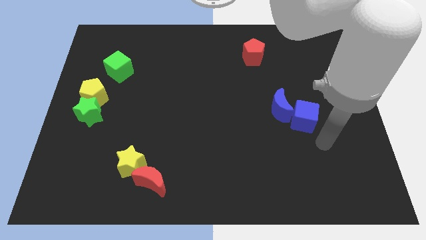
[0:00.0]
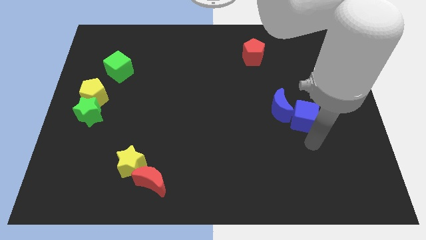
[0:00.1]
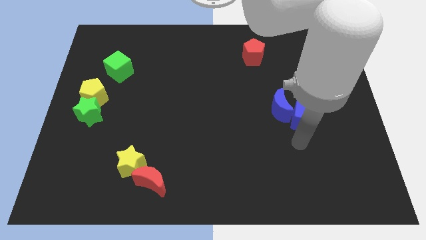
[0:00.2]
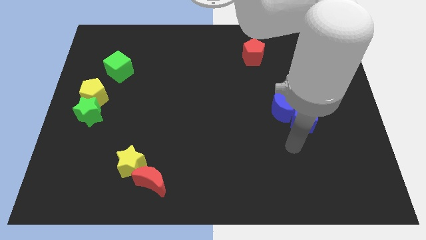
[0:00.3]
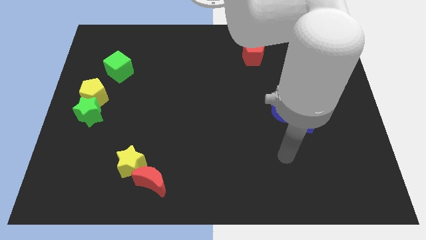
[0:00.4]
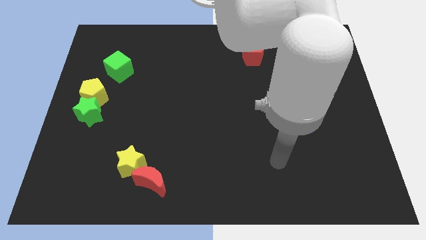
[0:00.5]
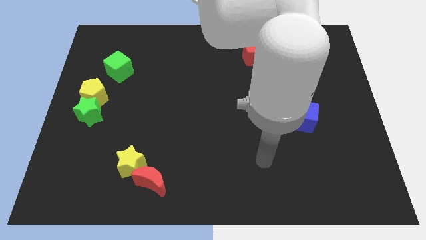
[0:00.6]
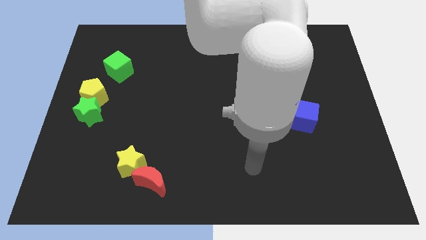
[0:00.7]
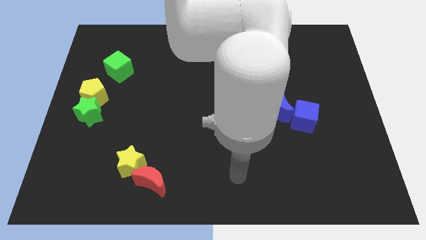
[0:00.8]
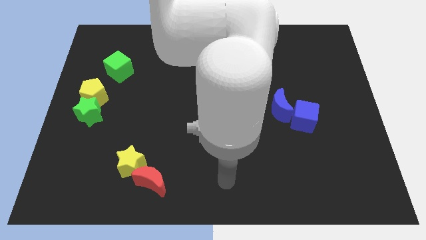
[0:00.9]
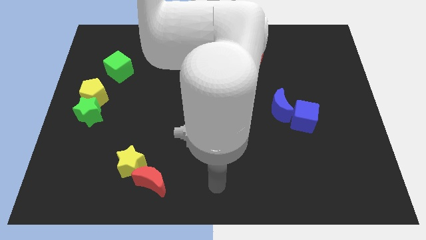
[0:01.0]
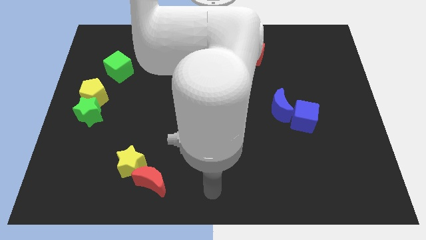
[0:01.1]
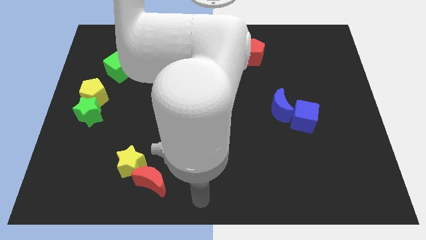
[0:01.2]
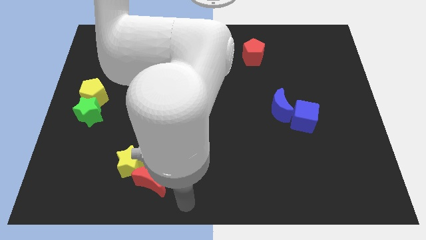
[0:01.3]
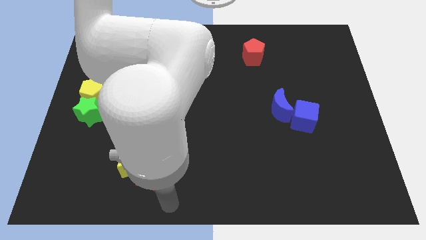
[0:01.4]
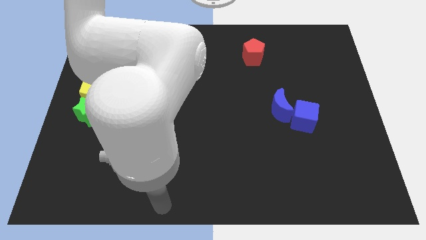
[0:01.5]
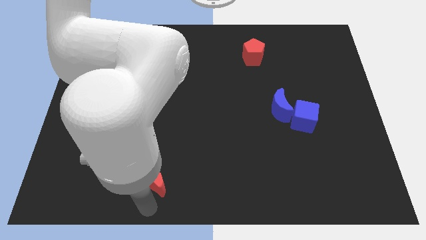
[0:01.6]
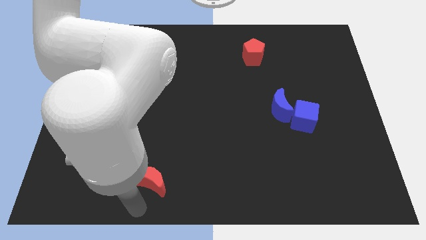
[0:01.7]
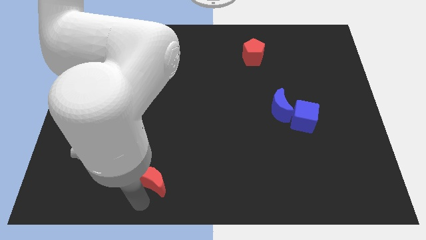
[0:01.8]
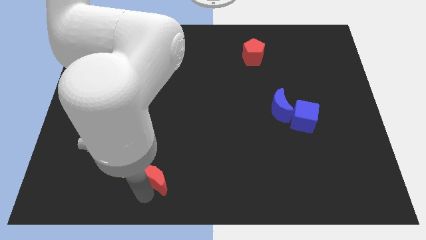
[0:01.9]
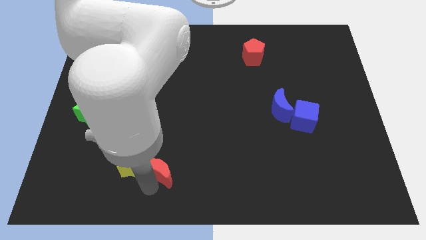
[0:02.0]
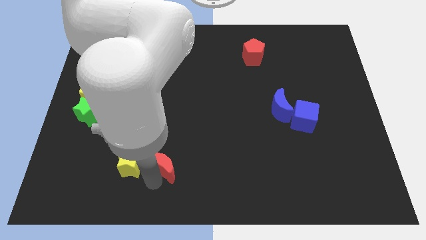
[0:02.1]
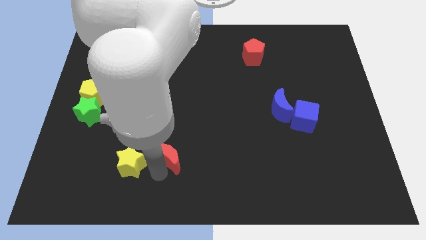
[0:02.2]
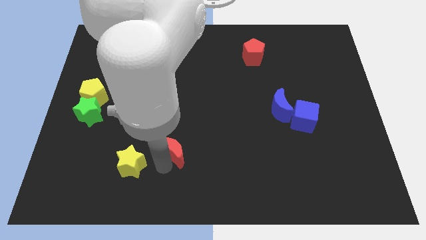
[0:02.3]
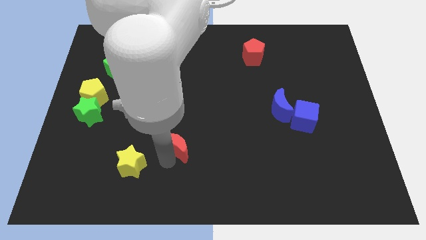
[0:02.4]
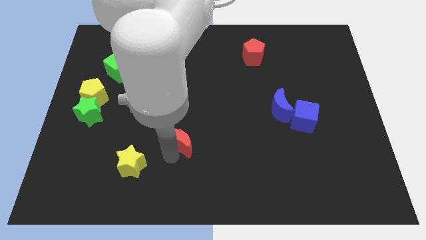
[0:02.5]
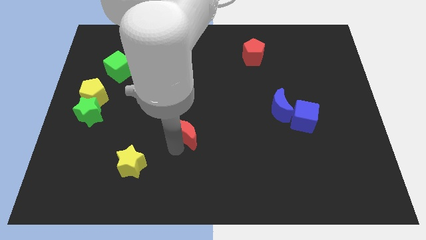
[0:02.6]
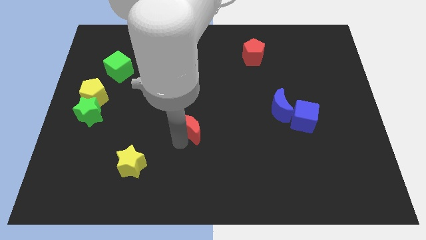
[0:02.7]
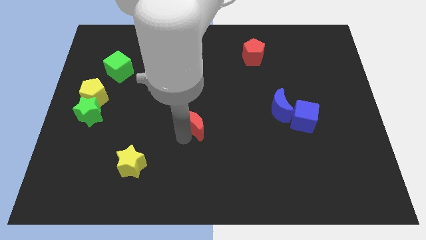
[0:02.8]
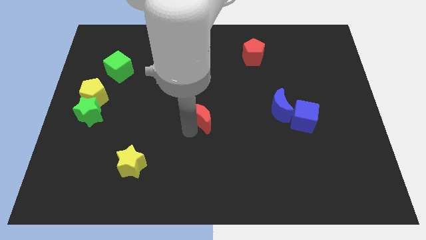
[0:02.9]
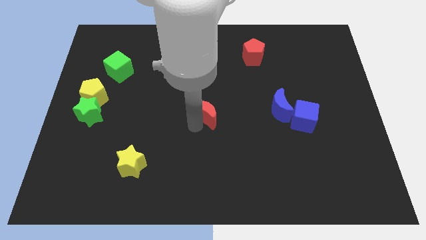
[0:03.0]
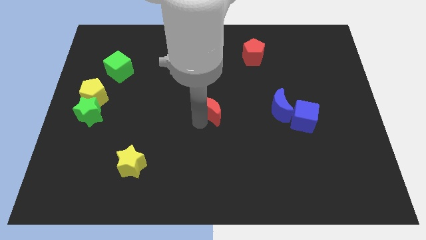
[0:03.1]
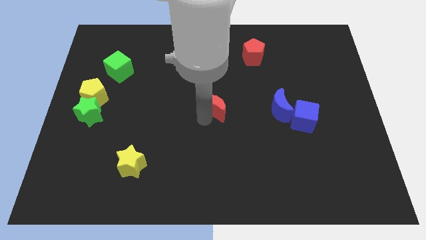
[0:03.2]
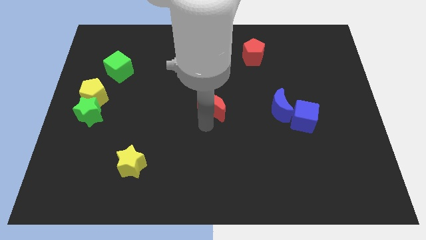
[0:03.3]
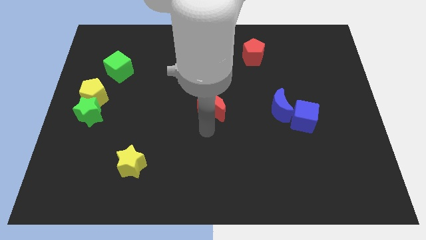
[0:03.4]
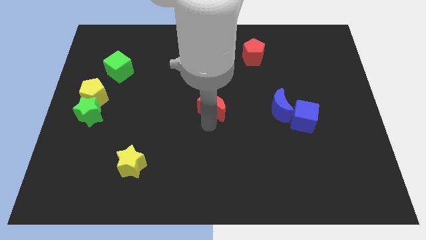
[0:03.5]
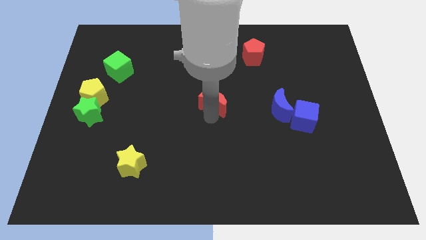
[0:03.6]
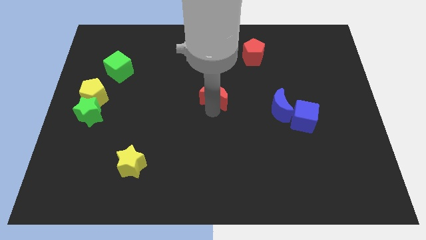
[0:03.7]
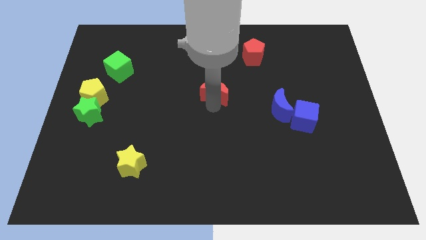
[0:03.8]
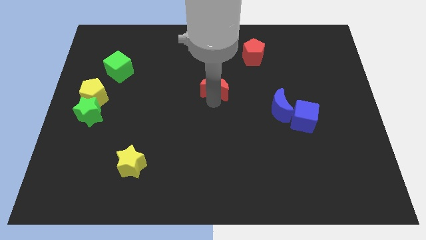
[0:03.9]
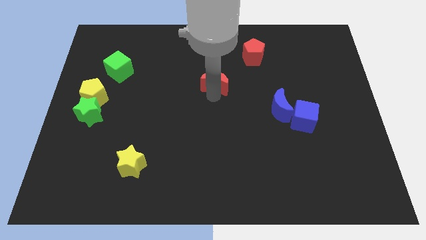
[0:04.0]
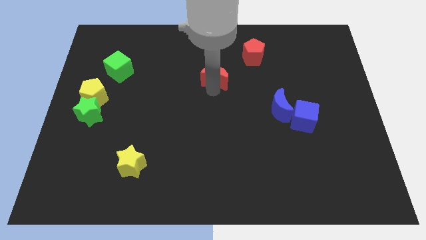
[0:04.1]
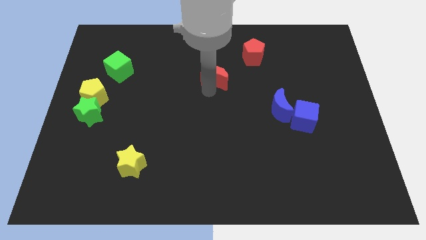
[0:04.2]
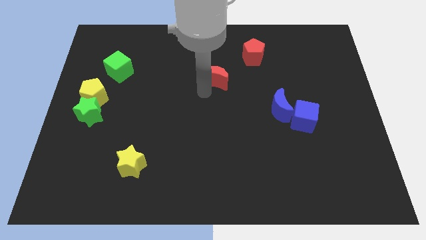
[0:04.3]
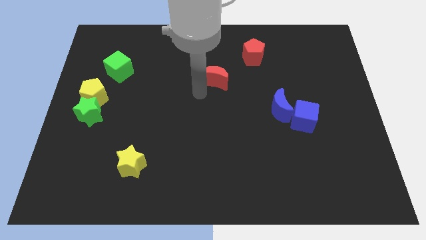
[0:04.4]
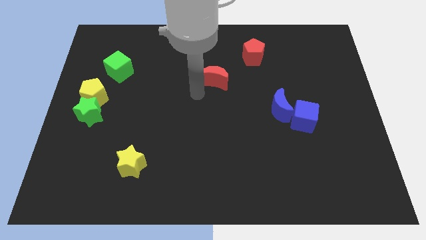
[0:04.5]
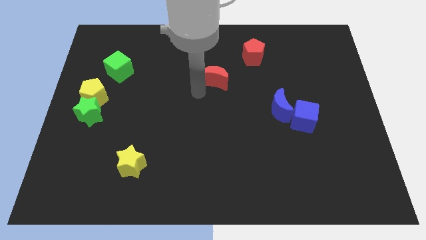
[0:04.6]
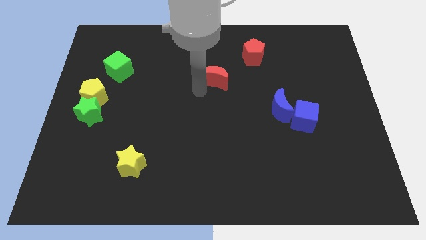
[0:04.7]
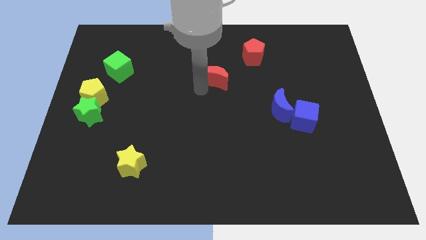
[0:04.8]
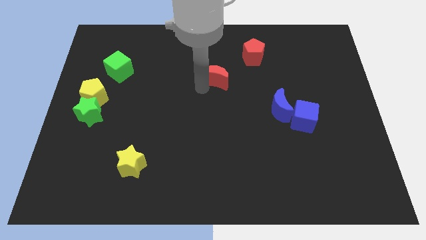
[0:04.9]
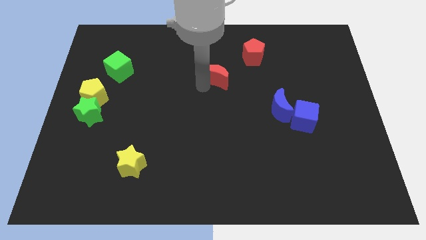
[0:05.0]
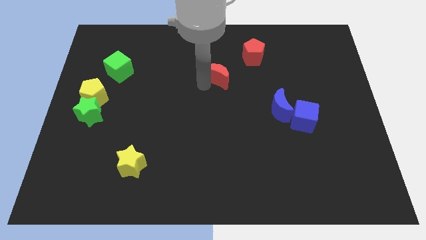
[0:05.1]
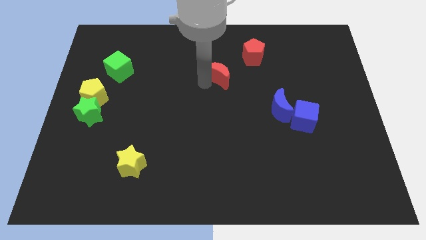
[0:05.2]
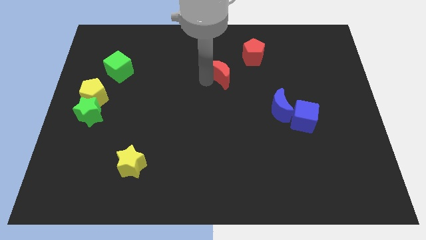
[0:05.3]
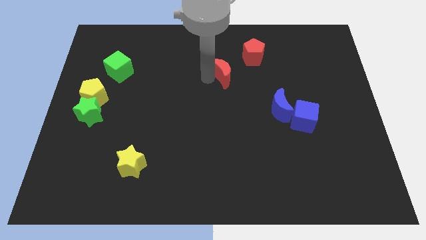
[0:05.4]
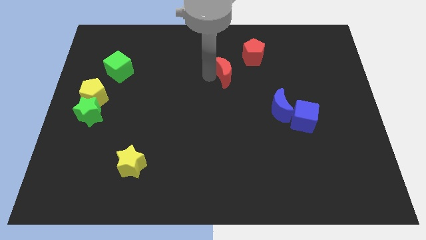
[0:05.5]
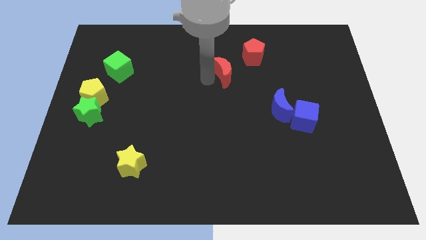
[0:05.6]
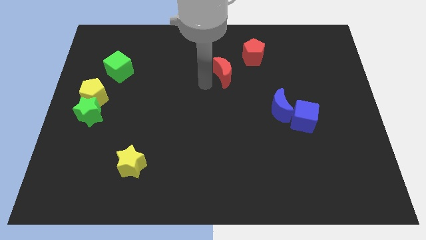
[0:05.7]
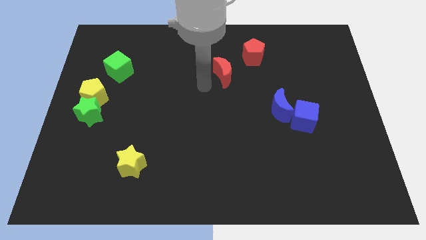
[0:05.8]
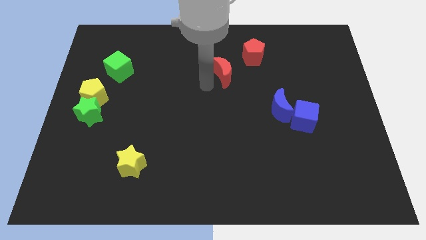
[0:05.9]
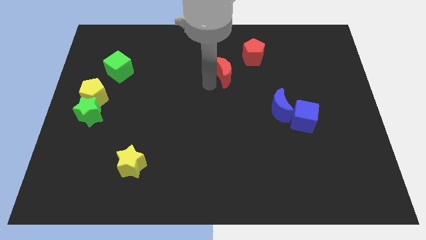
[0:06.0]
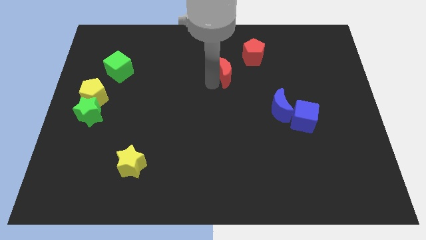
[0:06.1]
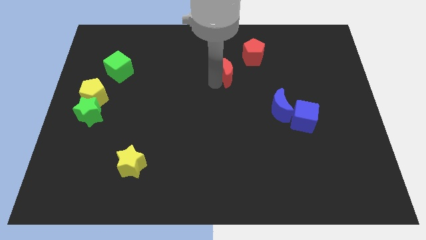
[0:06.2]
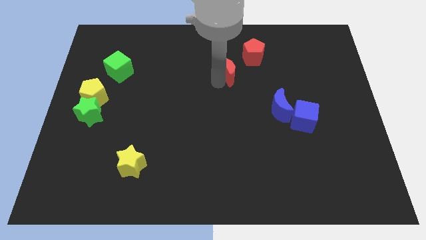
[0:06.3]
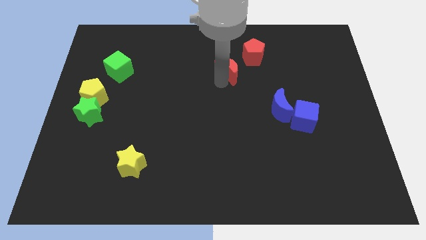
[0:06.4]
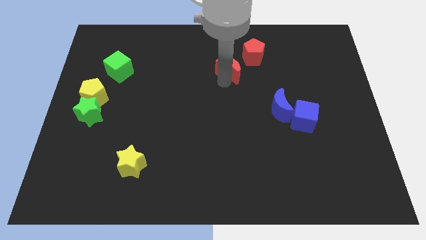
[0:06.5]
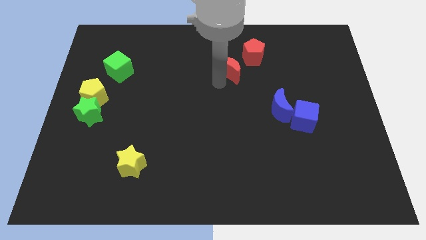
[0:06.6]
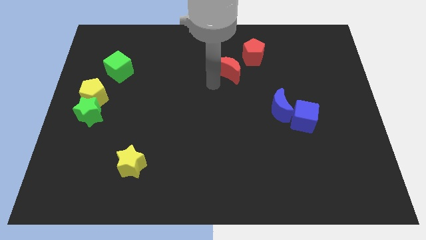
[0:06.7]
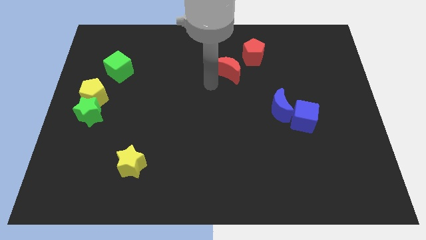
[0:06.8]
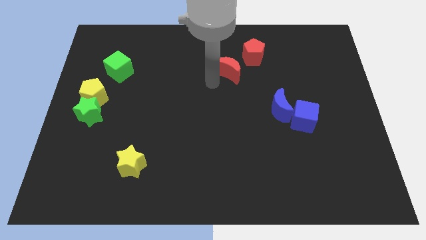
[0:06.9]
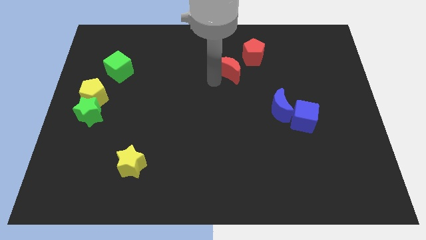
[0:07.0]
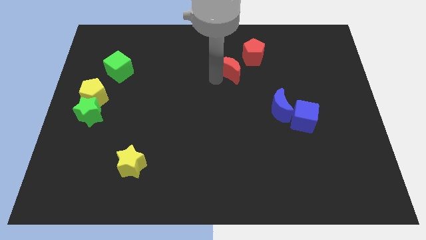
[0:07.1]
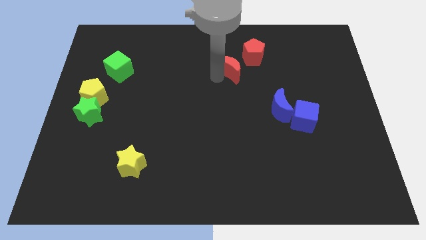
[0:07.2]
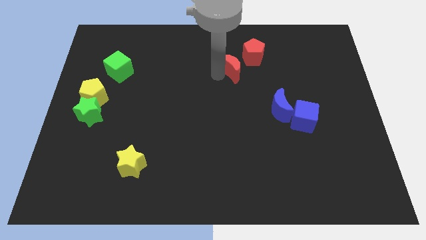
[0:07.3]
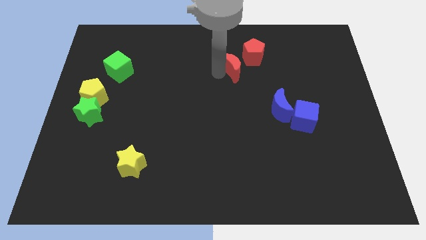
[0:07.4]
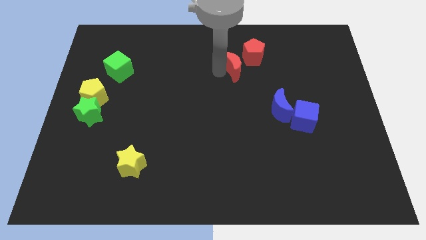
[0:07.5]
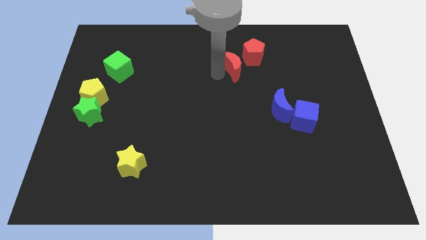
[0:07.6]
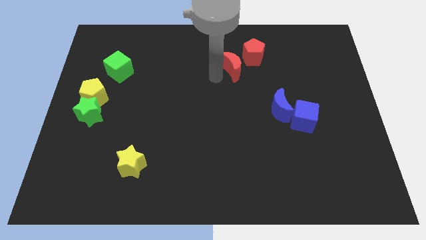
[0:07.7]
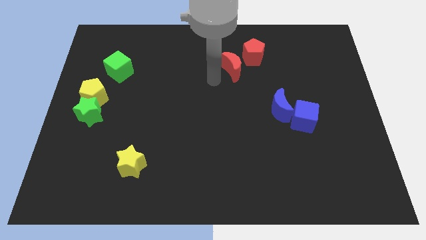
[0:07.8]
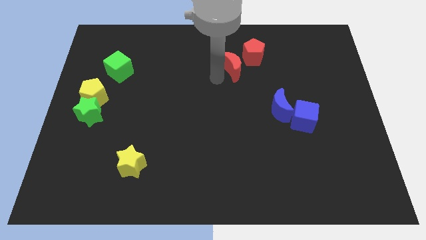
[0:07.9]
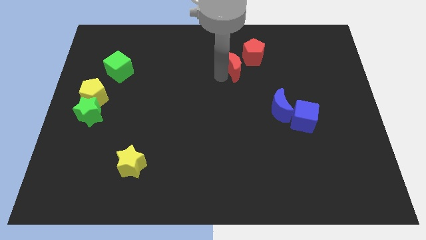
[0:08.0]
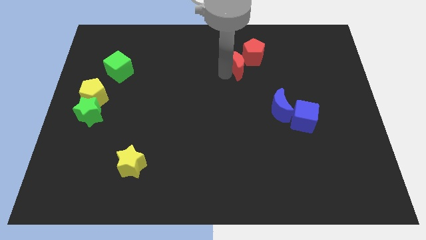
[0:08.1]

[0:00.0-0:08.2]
move the red moon to the red pentagon
